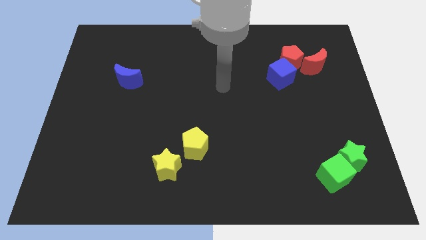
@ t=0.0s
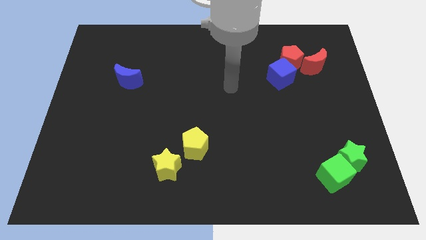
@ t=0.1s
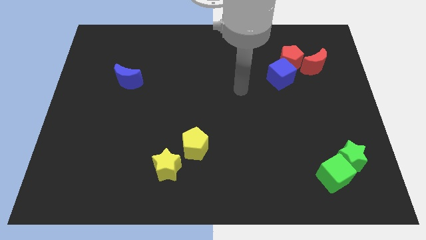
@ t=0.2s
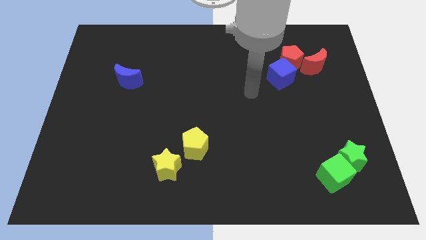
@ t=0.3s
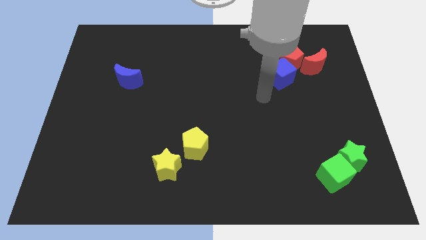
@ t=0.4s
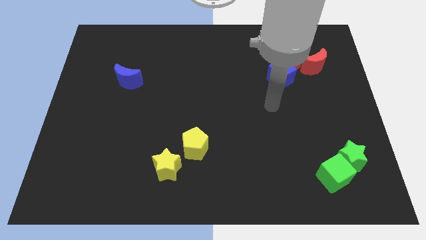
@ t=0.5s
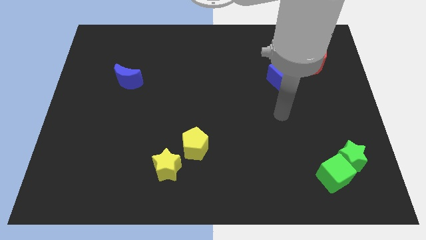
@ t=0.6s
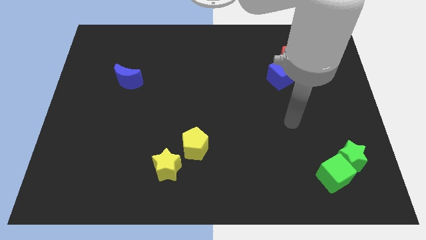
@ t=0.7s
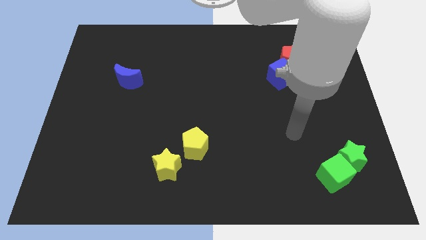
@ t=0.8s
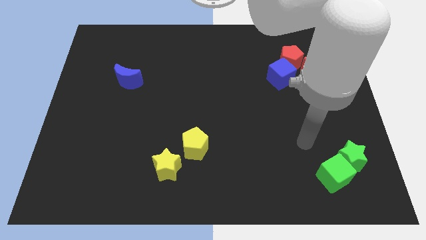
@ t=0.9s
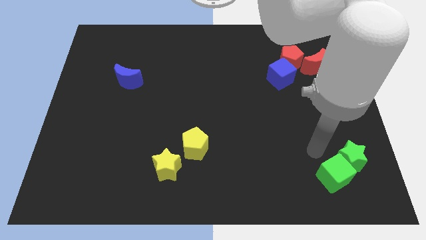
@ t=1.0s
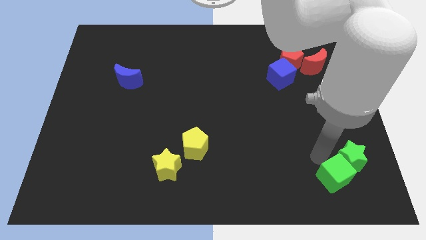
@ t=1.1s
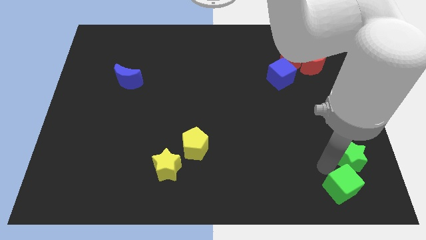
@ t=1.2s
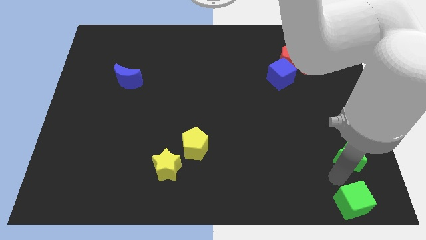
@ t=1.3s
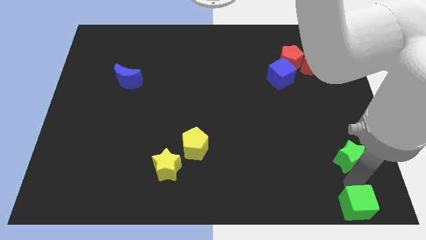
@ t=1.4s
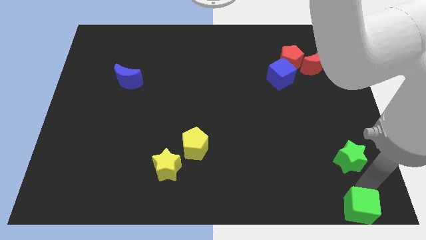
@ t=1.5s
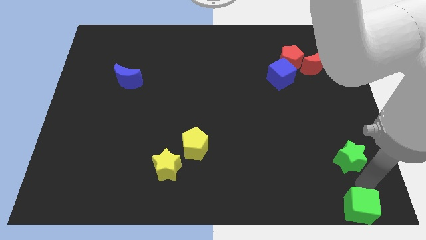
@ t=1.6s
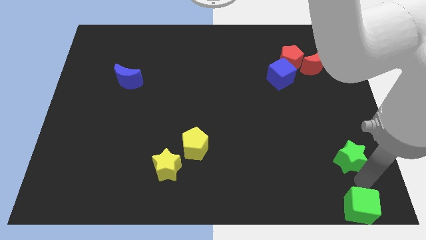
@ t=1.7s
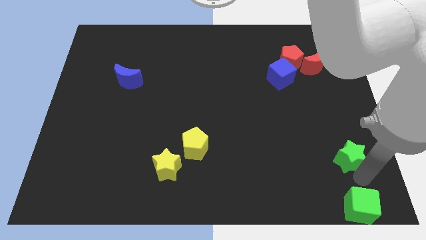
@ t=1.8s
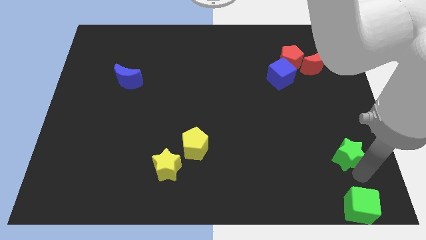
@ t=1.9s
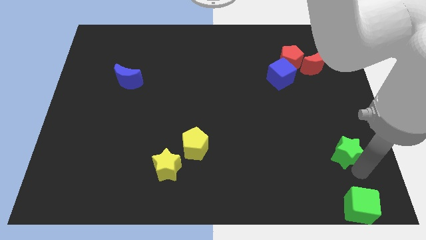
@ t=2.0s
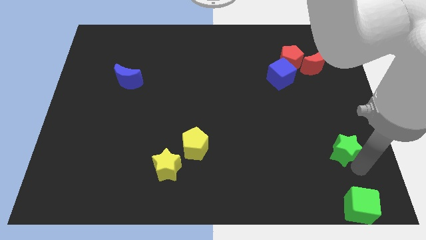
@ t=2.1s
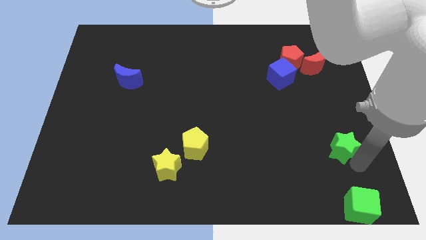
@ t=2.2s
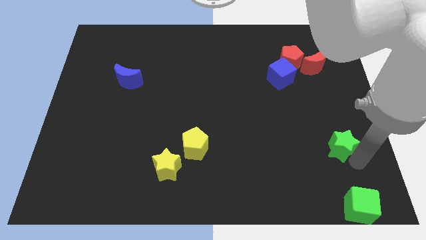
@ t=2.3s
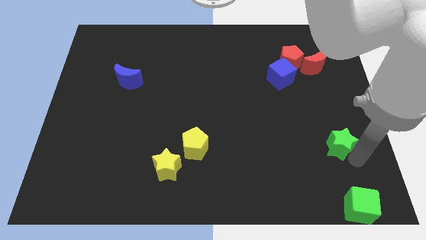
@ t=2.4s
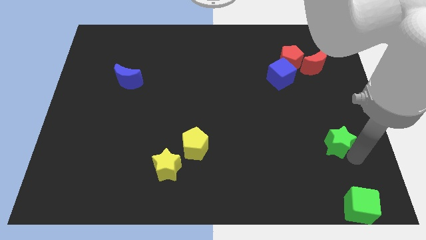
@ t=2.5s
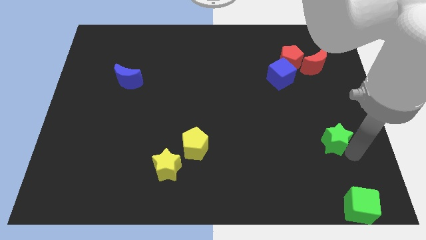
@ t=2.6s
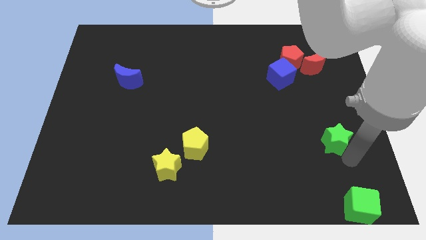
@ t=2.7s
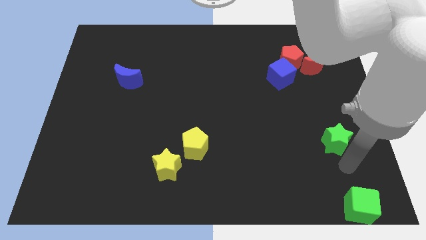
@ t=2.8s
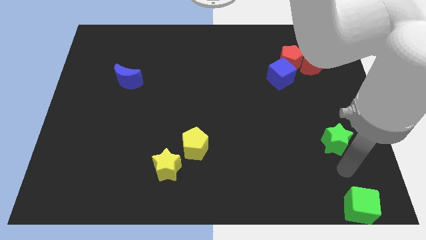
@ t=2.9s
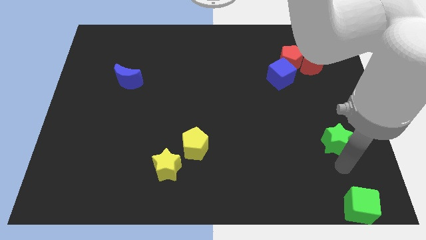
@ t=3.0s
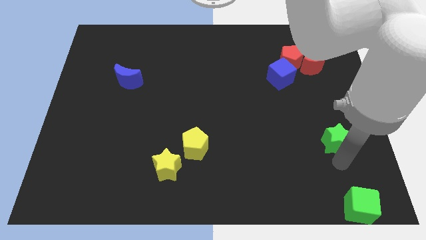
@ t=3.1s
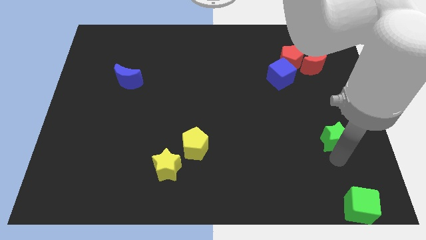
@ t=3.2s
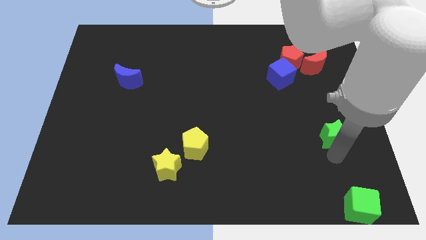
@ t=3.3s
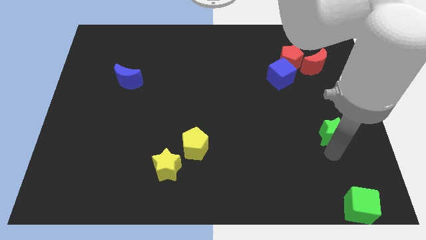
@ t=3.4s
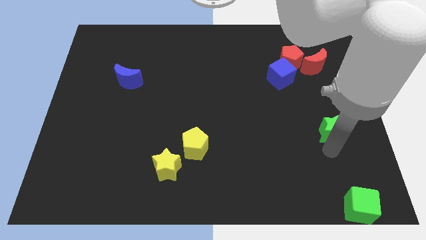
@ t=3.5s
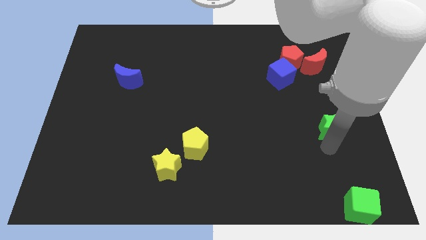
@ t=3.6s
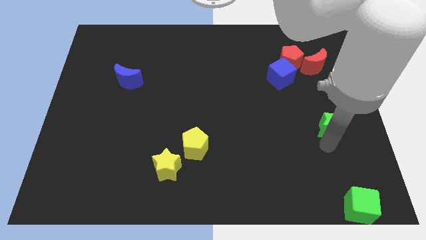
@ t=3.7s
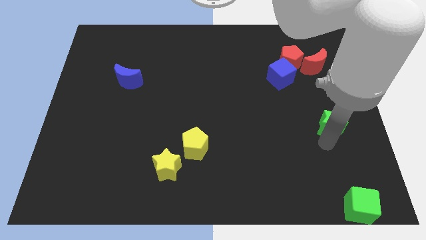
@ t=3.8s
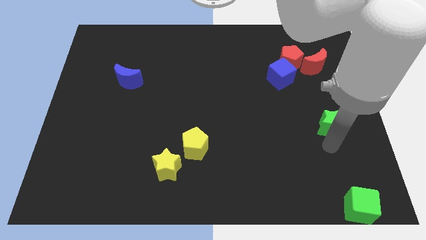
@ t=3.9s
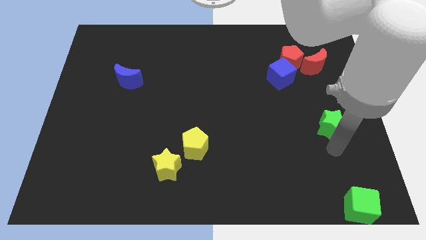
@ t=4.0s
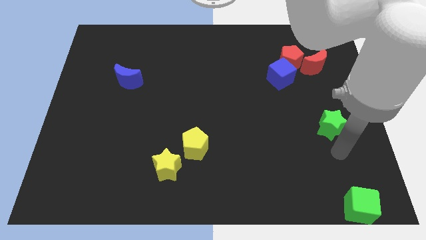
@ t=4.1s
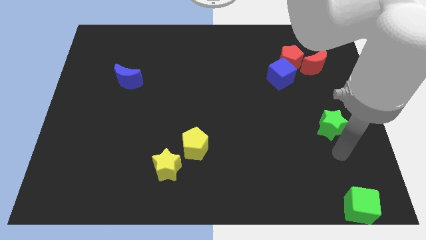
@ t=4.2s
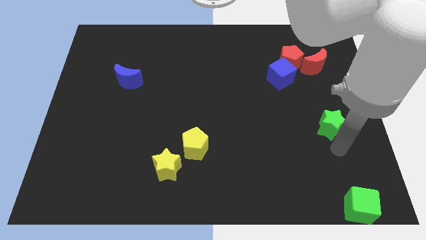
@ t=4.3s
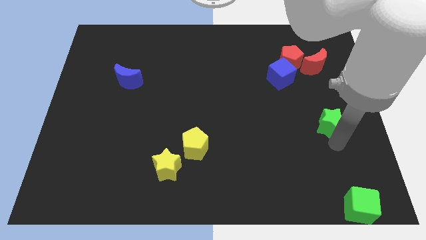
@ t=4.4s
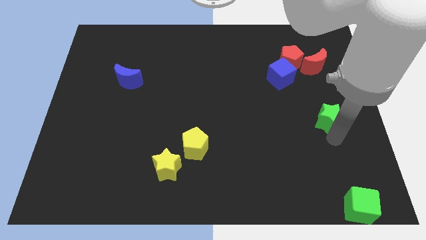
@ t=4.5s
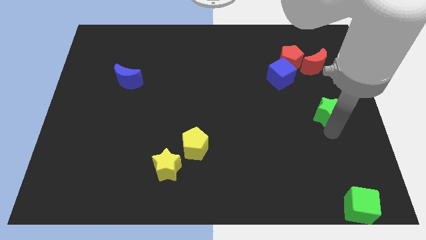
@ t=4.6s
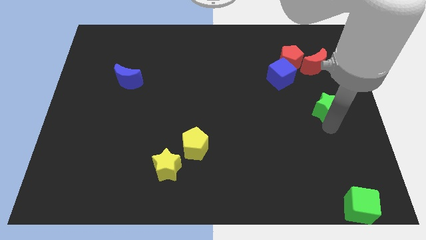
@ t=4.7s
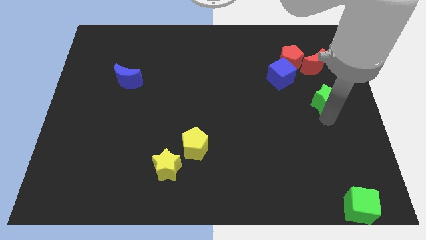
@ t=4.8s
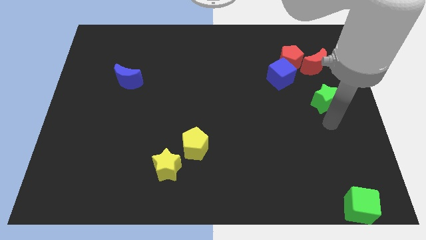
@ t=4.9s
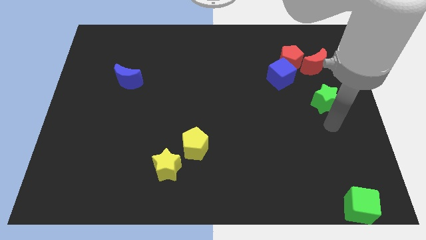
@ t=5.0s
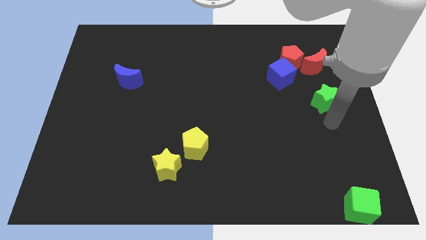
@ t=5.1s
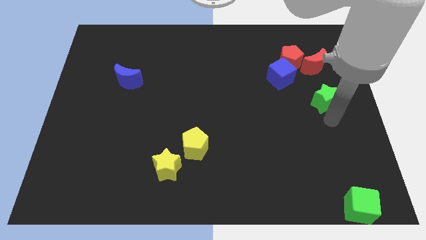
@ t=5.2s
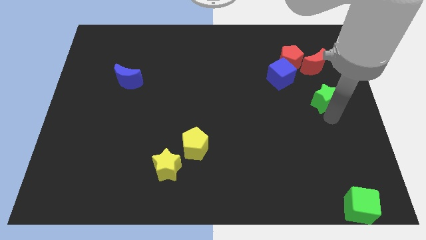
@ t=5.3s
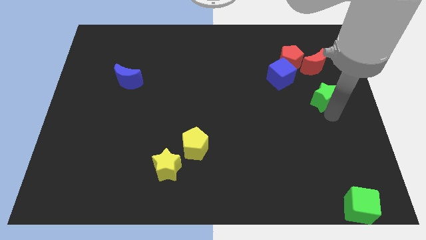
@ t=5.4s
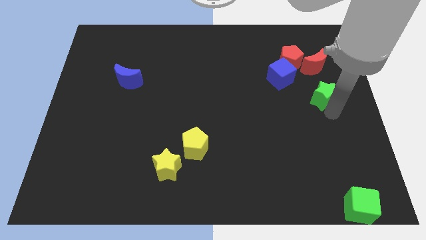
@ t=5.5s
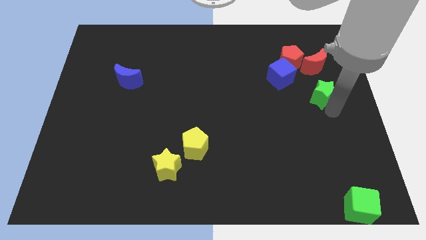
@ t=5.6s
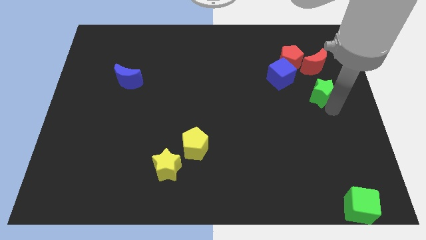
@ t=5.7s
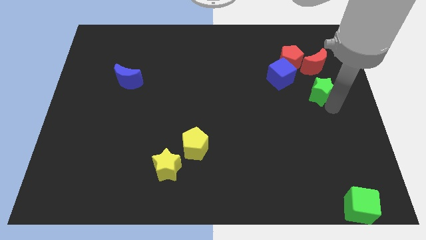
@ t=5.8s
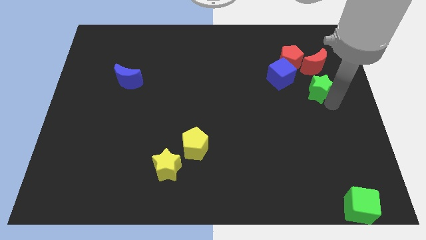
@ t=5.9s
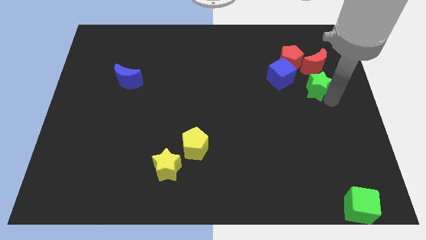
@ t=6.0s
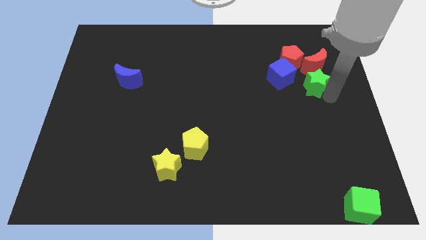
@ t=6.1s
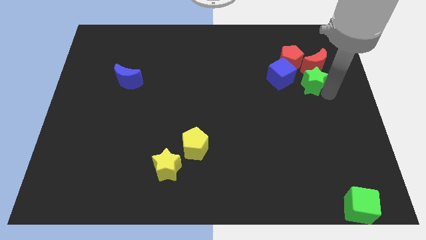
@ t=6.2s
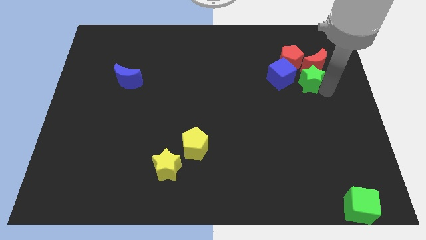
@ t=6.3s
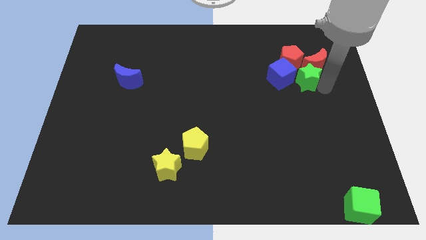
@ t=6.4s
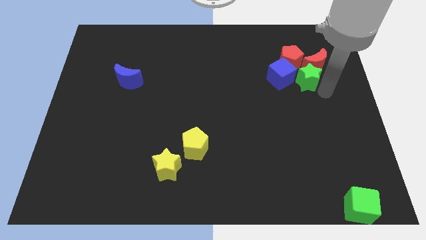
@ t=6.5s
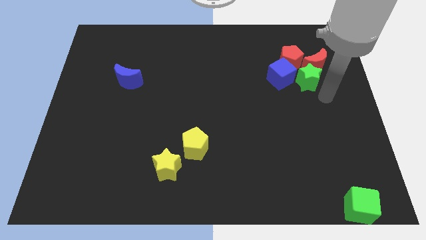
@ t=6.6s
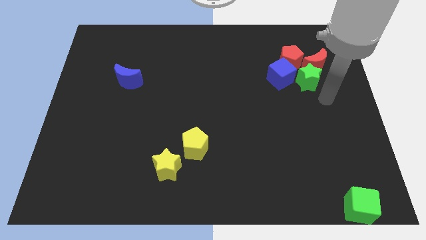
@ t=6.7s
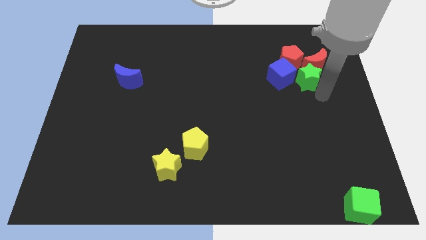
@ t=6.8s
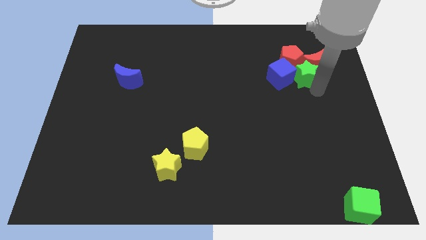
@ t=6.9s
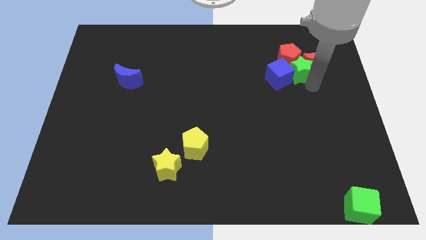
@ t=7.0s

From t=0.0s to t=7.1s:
slide the green star to the red pentagon

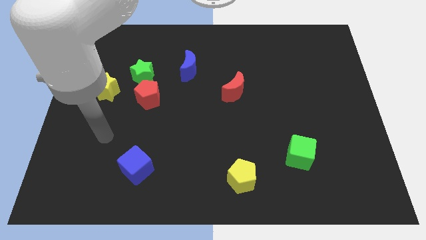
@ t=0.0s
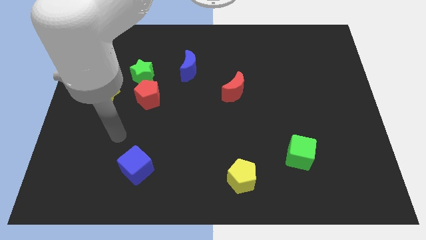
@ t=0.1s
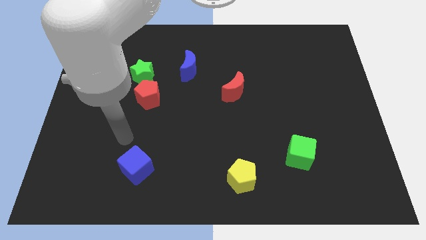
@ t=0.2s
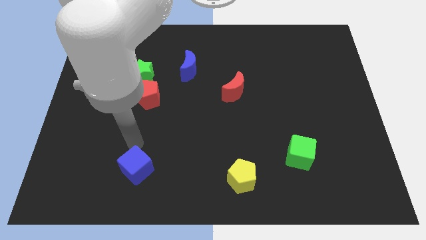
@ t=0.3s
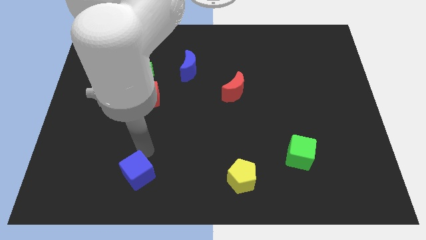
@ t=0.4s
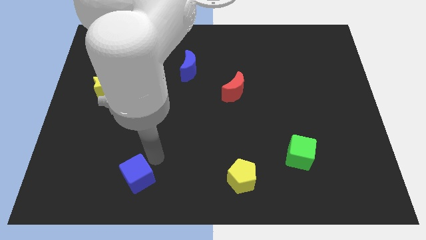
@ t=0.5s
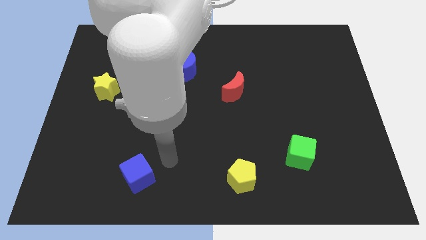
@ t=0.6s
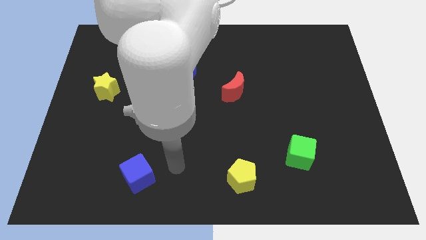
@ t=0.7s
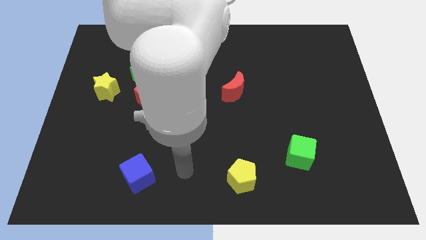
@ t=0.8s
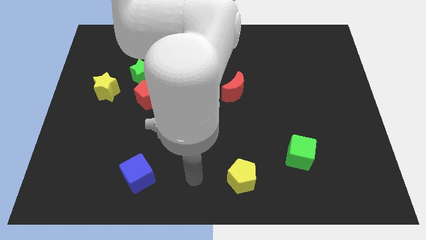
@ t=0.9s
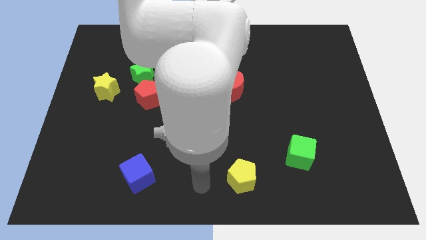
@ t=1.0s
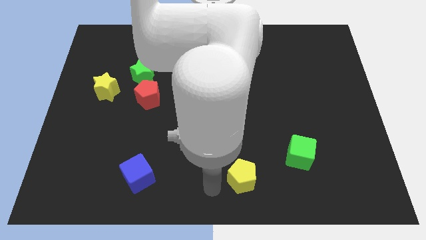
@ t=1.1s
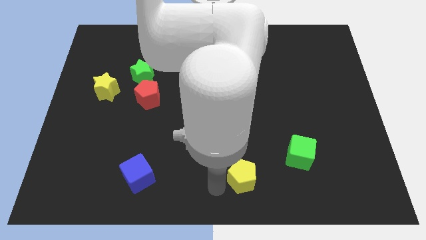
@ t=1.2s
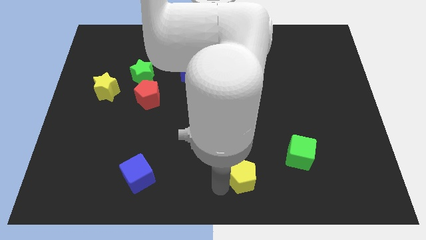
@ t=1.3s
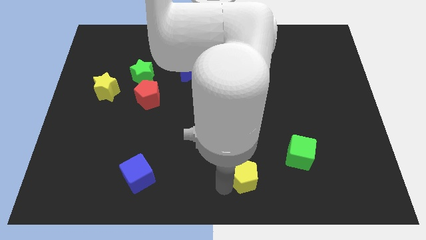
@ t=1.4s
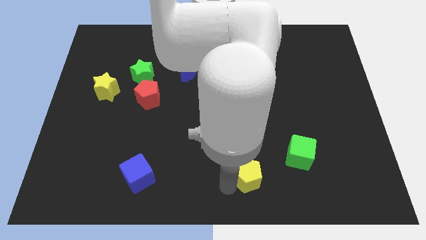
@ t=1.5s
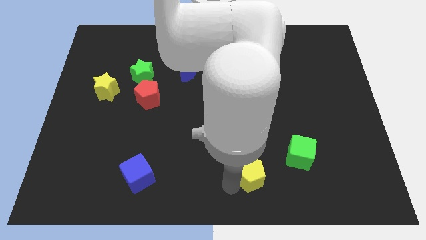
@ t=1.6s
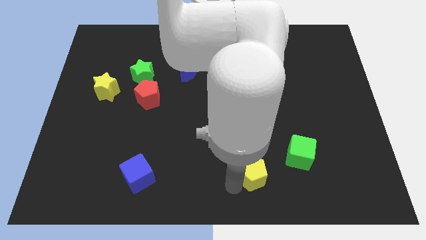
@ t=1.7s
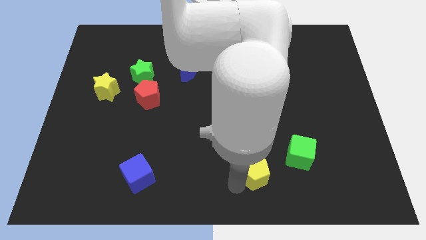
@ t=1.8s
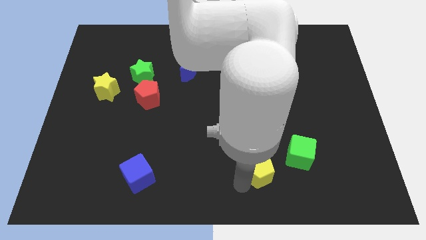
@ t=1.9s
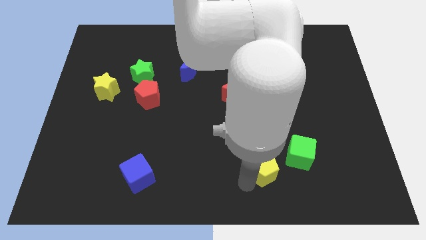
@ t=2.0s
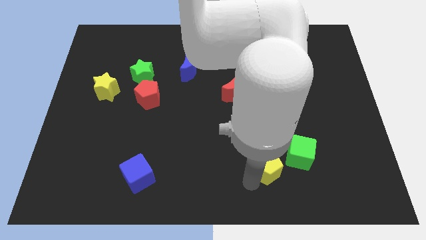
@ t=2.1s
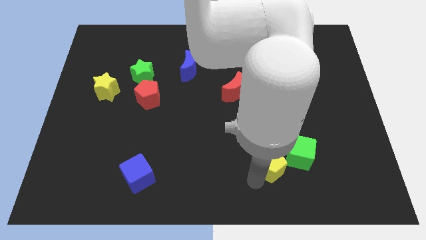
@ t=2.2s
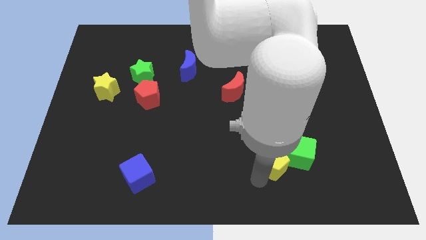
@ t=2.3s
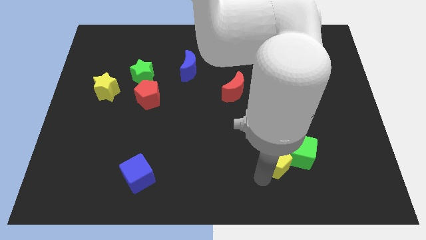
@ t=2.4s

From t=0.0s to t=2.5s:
push the yellow pentagon close to the green cube
